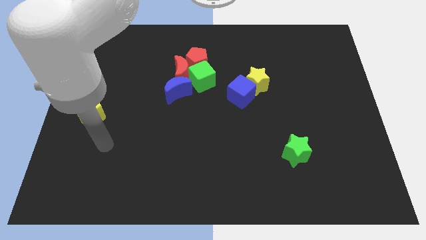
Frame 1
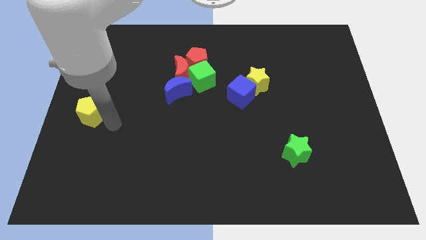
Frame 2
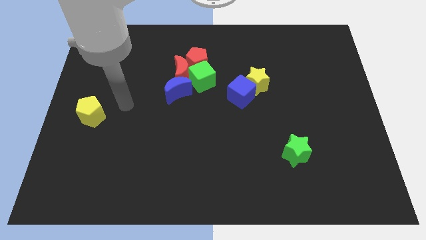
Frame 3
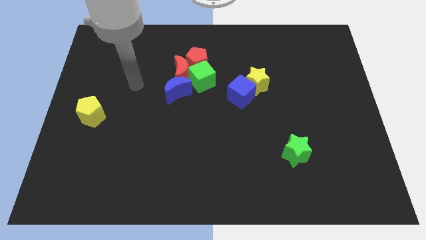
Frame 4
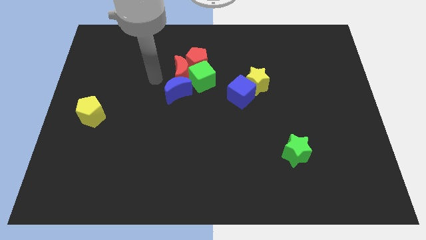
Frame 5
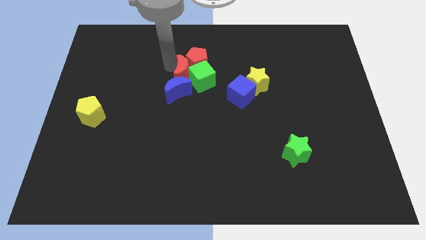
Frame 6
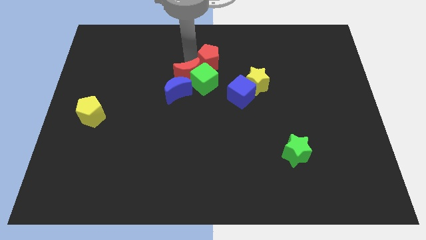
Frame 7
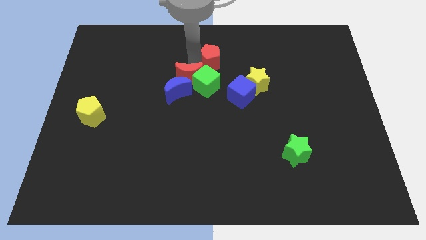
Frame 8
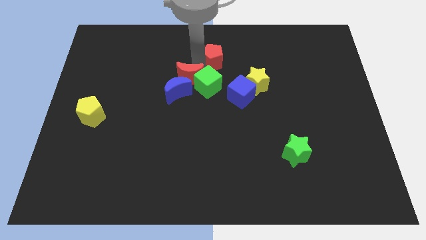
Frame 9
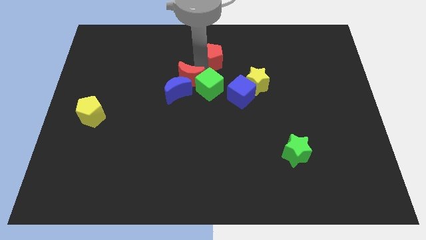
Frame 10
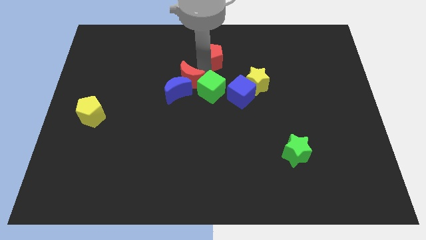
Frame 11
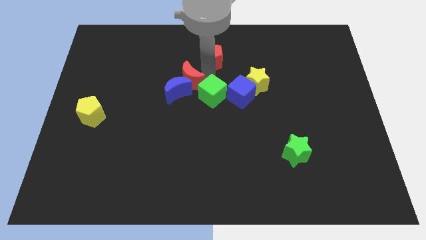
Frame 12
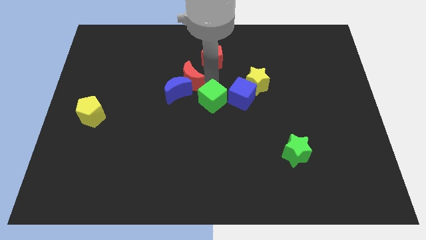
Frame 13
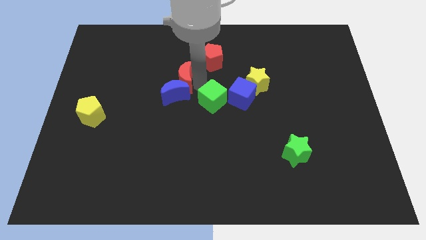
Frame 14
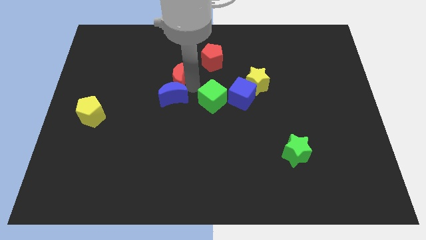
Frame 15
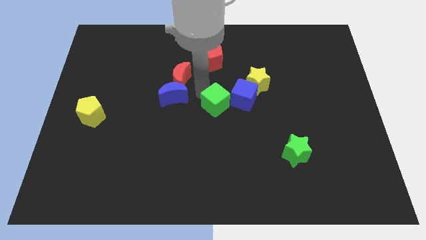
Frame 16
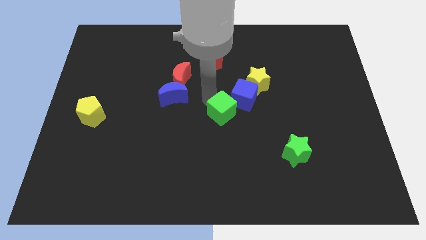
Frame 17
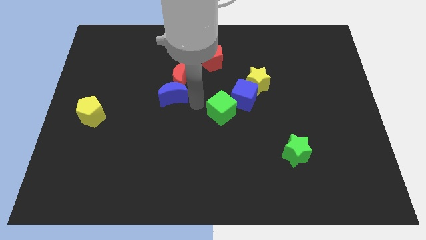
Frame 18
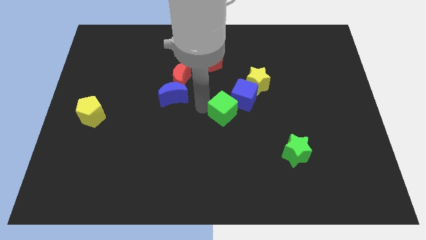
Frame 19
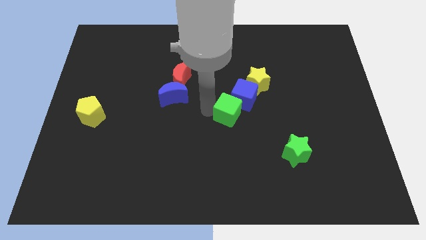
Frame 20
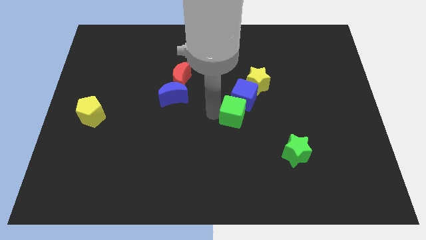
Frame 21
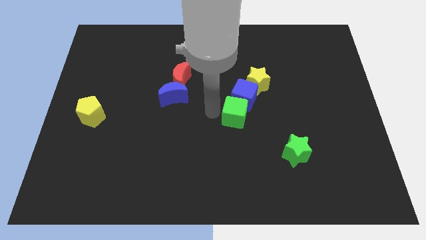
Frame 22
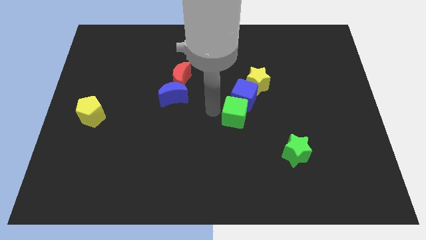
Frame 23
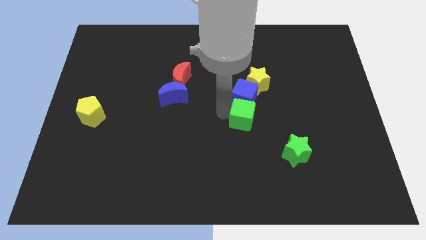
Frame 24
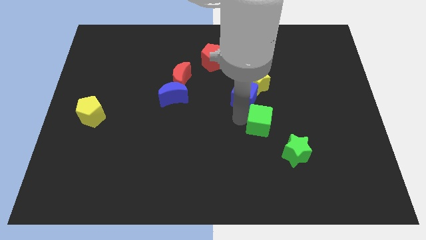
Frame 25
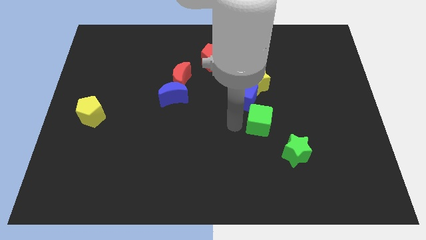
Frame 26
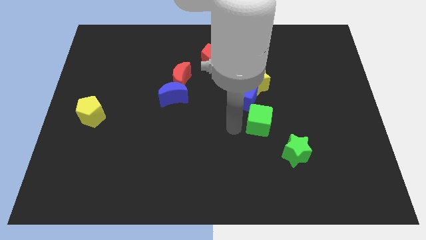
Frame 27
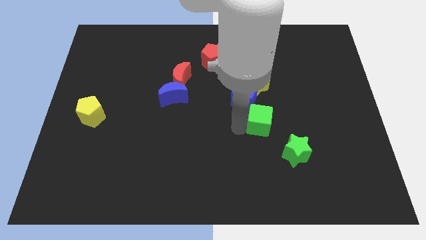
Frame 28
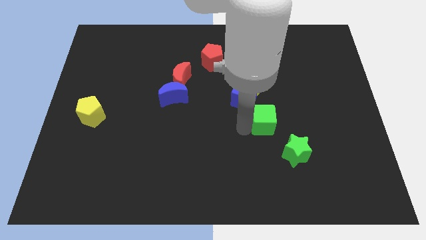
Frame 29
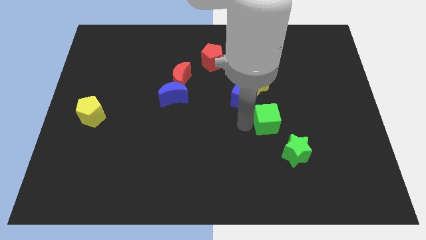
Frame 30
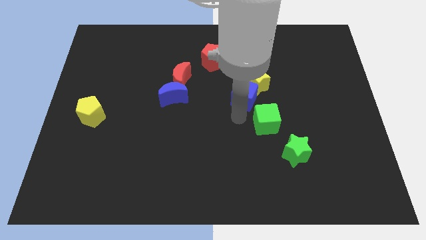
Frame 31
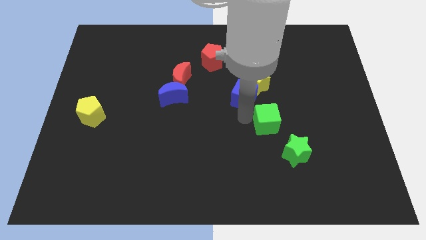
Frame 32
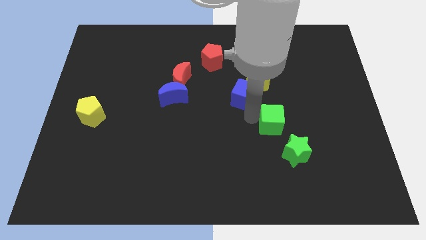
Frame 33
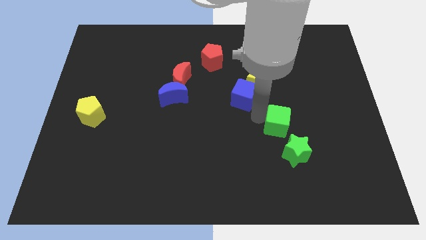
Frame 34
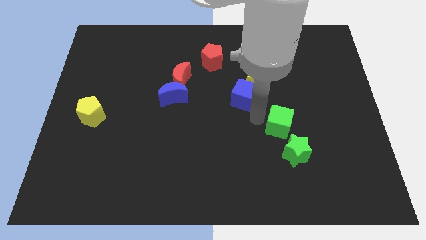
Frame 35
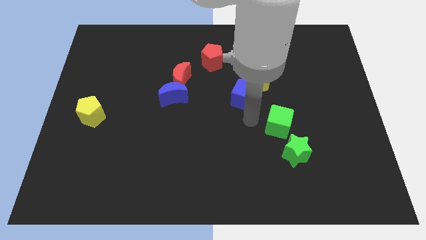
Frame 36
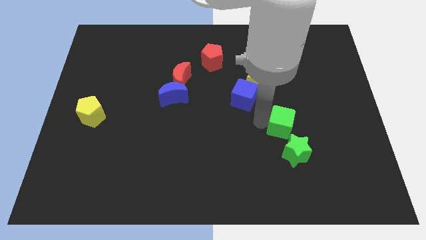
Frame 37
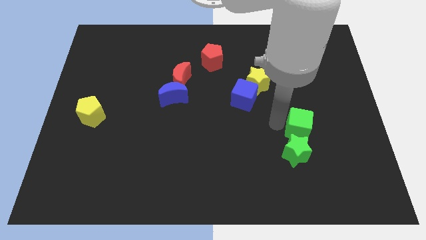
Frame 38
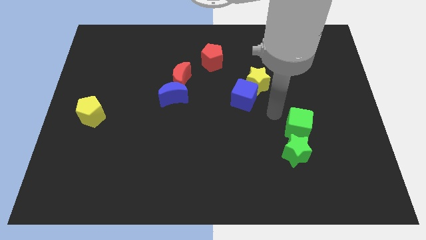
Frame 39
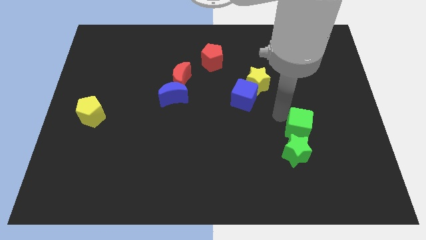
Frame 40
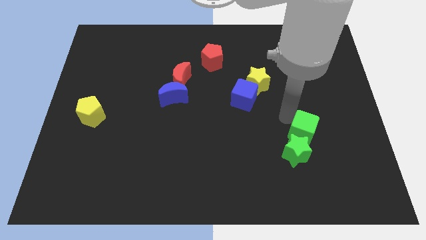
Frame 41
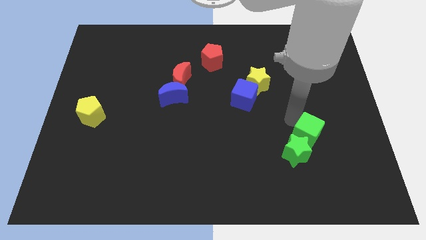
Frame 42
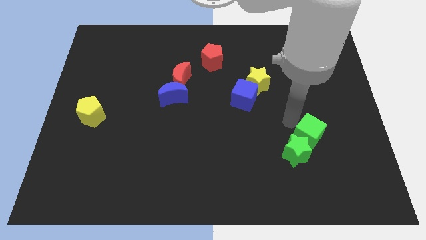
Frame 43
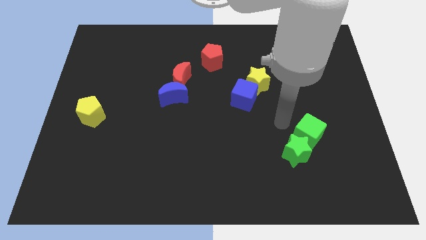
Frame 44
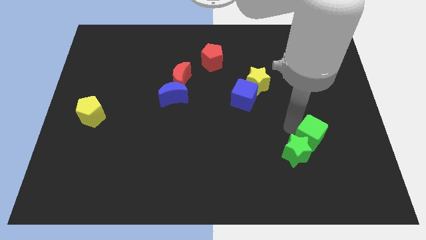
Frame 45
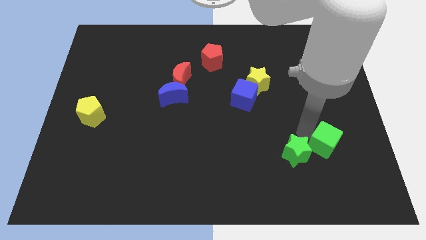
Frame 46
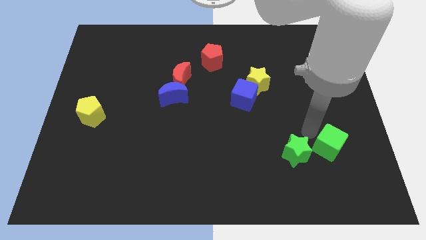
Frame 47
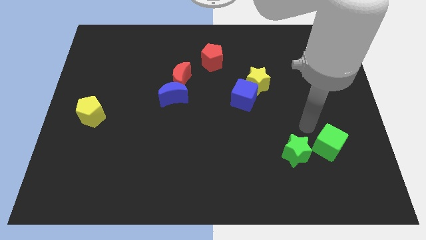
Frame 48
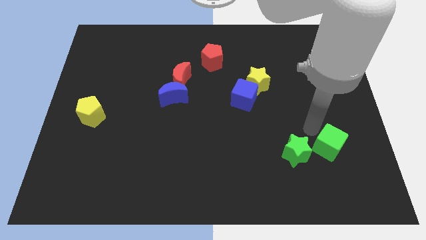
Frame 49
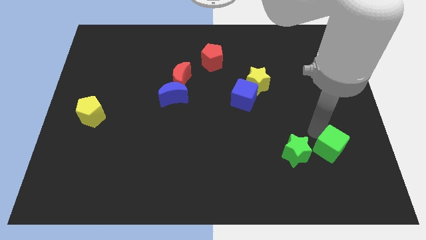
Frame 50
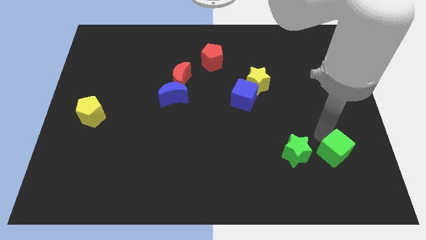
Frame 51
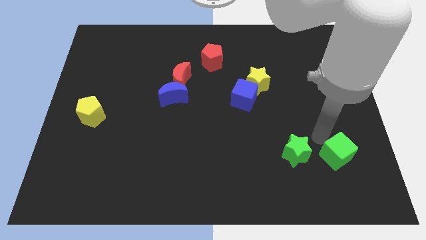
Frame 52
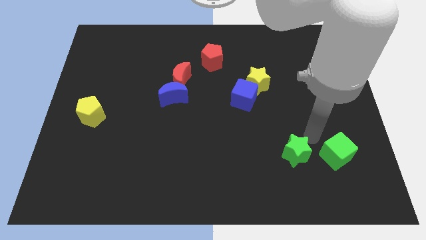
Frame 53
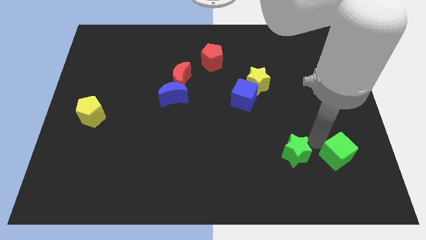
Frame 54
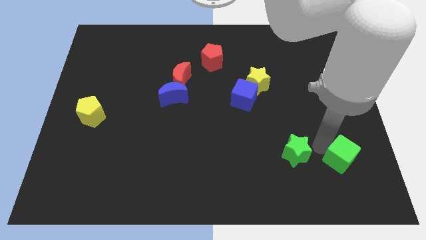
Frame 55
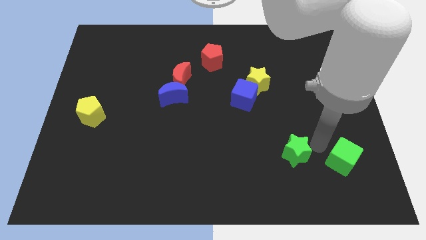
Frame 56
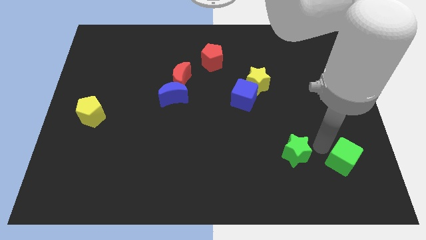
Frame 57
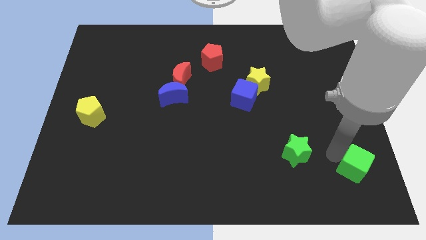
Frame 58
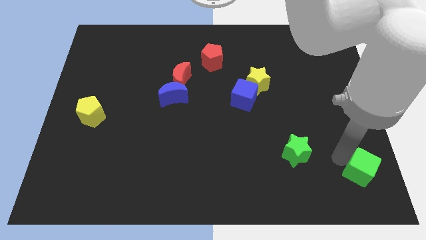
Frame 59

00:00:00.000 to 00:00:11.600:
move the green cube to the bottom right

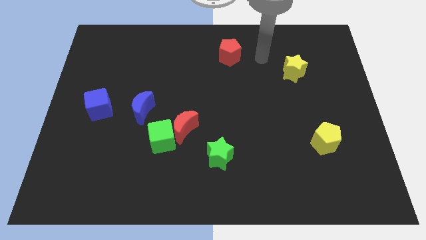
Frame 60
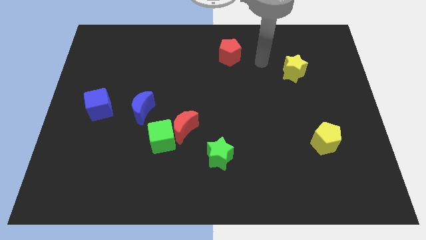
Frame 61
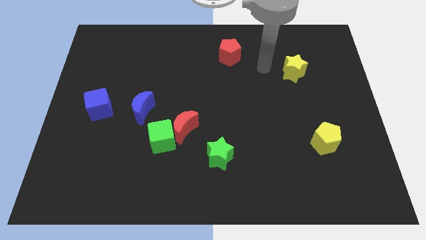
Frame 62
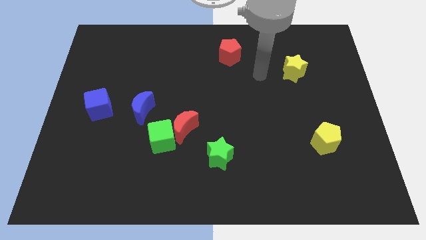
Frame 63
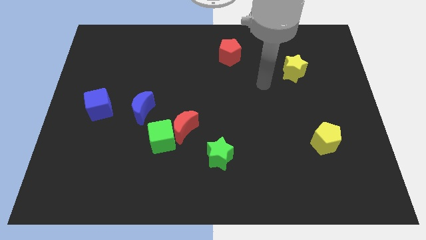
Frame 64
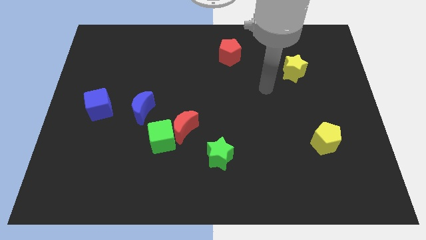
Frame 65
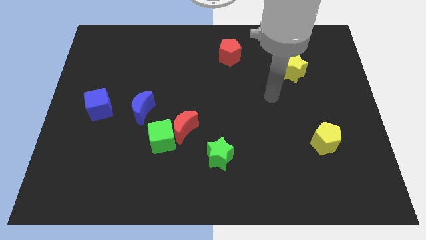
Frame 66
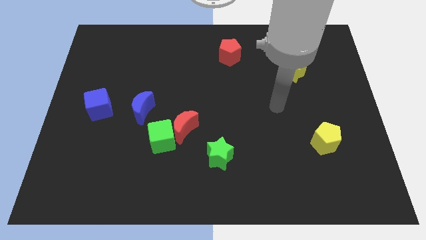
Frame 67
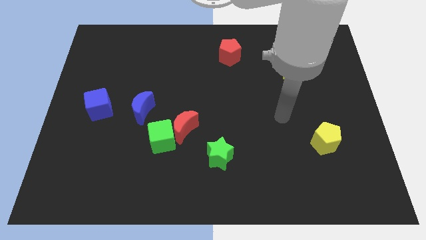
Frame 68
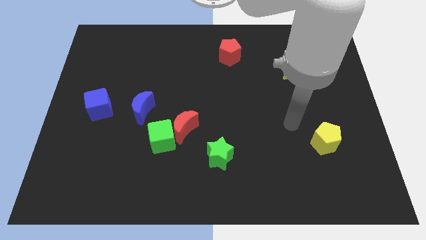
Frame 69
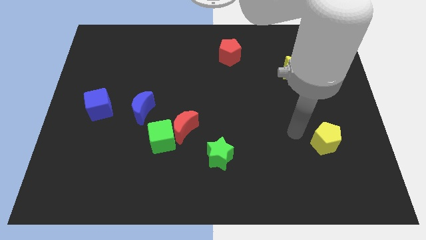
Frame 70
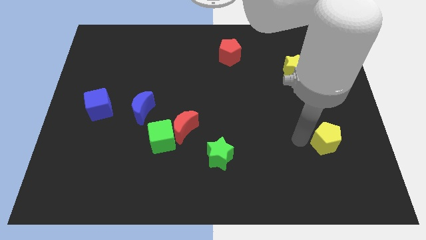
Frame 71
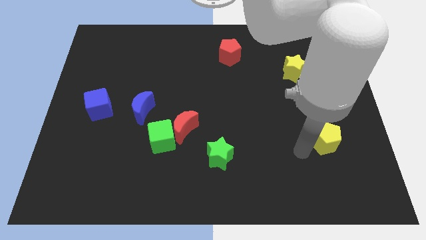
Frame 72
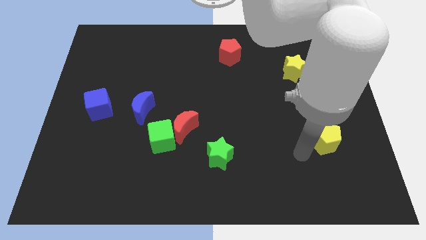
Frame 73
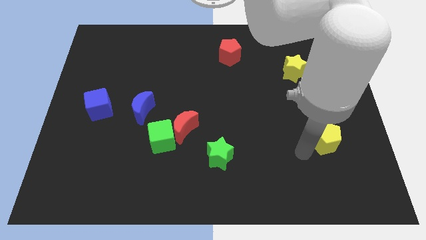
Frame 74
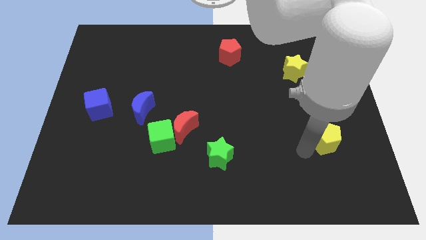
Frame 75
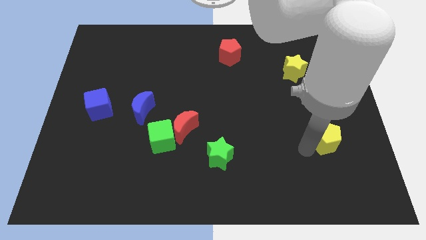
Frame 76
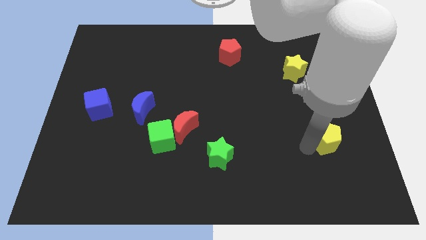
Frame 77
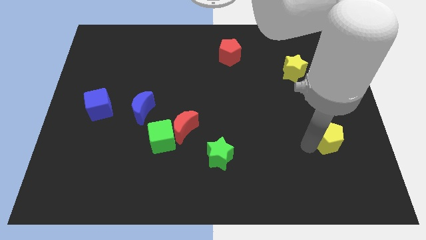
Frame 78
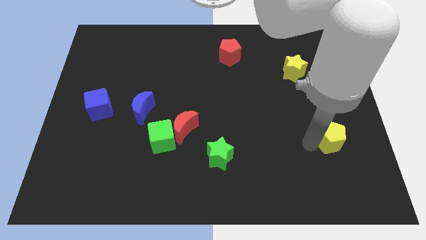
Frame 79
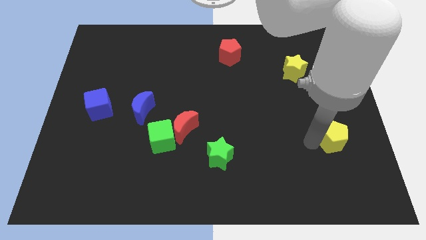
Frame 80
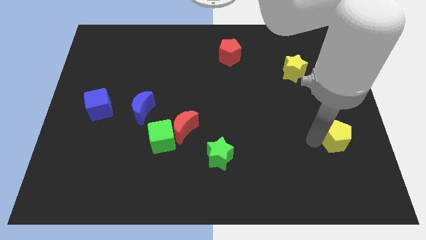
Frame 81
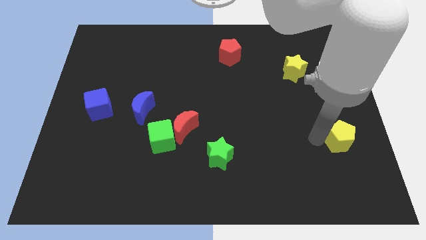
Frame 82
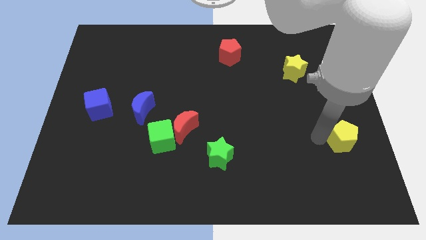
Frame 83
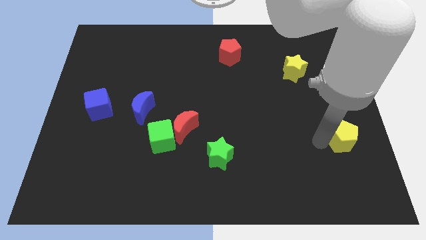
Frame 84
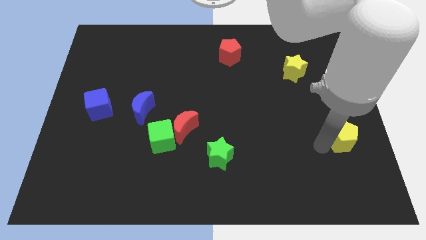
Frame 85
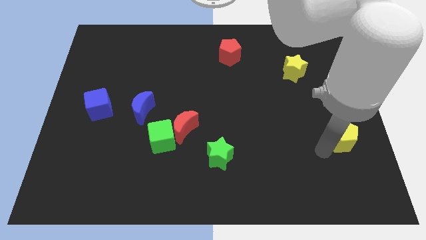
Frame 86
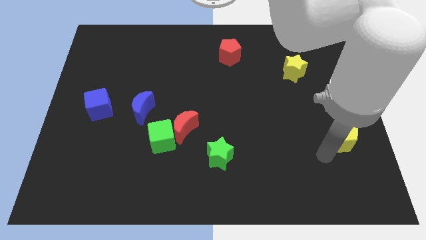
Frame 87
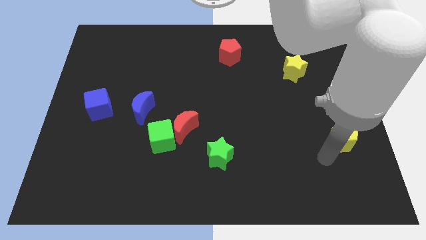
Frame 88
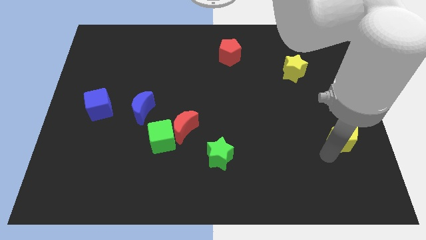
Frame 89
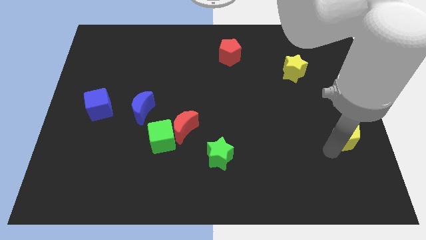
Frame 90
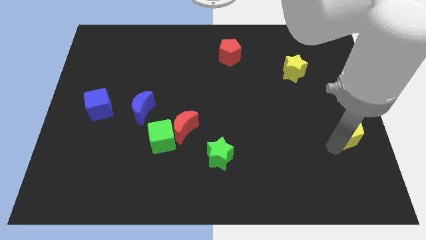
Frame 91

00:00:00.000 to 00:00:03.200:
put the yellow pentagon to the center right
